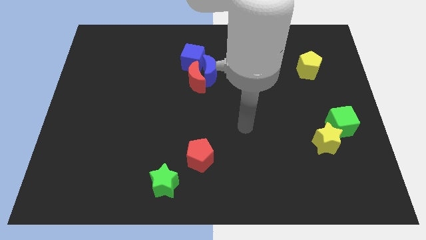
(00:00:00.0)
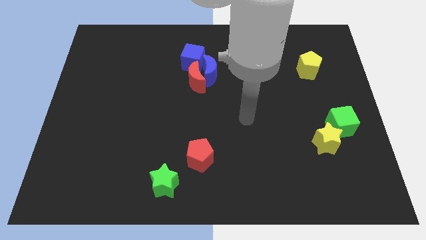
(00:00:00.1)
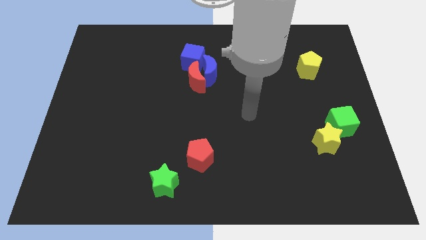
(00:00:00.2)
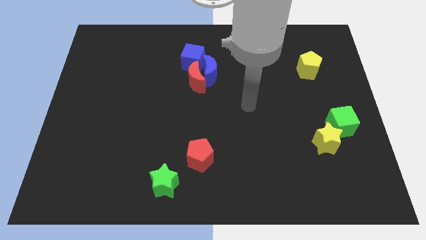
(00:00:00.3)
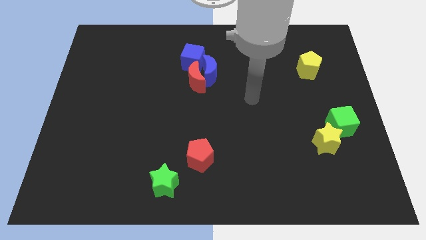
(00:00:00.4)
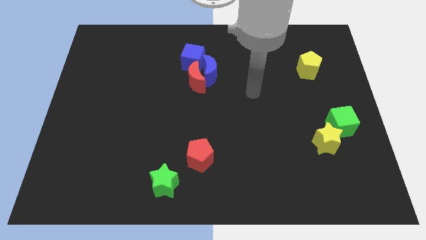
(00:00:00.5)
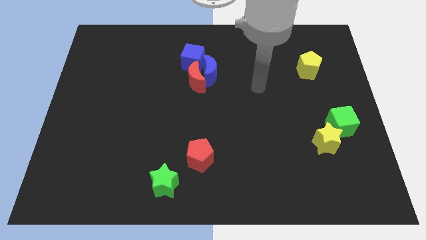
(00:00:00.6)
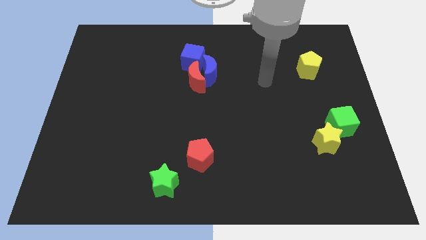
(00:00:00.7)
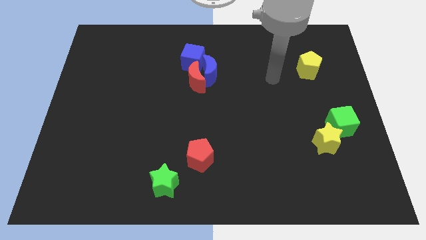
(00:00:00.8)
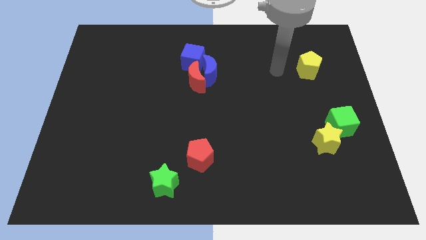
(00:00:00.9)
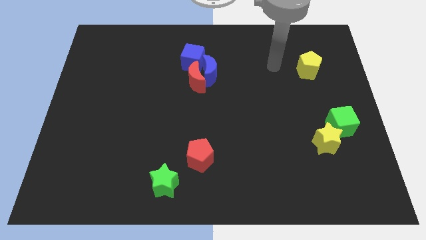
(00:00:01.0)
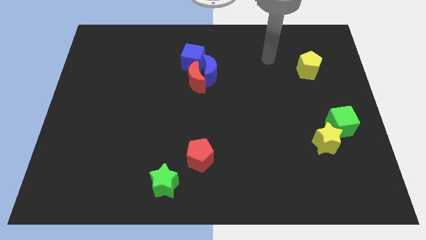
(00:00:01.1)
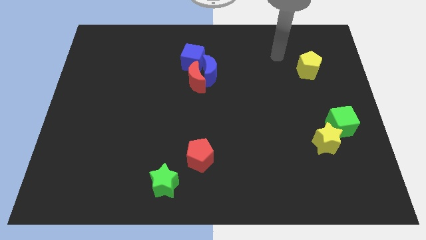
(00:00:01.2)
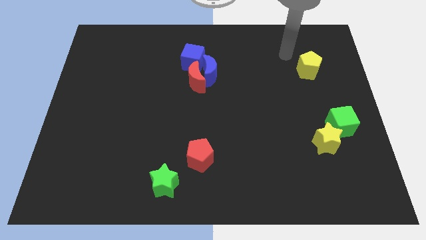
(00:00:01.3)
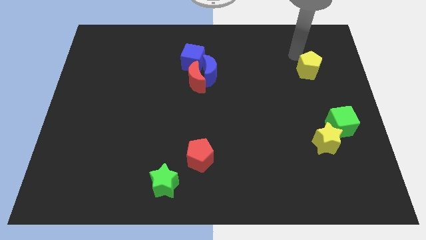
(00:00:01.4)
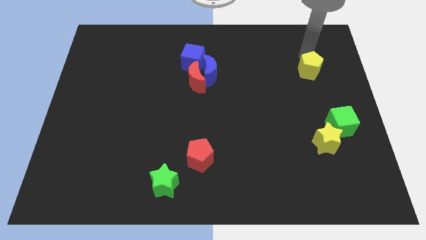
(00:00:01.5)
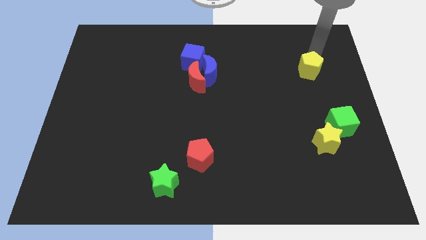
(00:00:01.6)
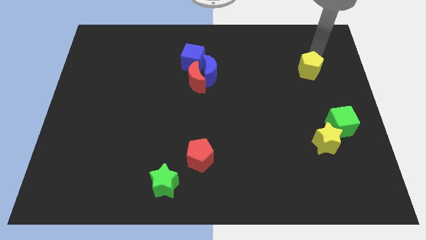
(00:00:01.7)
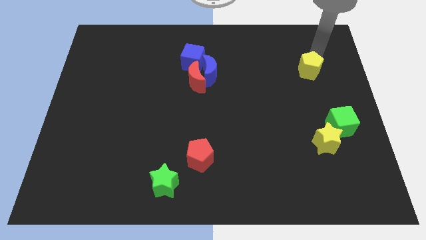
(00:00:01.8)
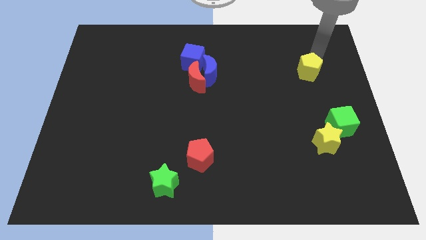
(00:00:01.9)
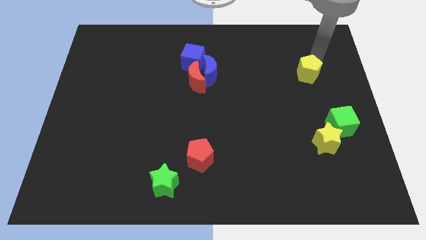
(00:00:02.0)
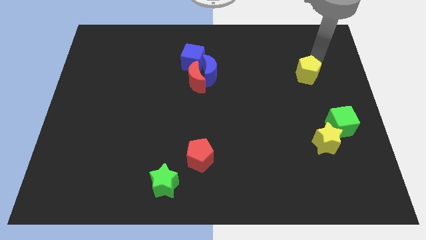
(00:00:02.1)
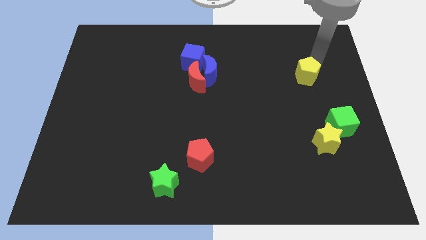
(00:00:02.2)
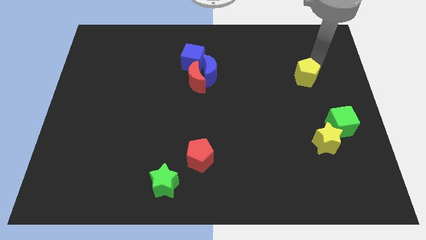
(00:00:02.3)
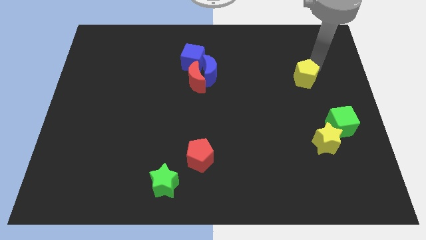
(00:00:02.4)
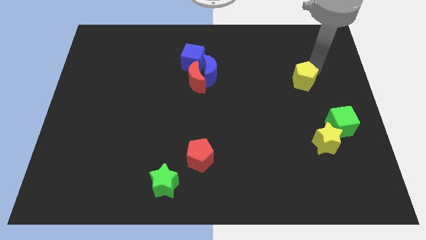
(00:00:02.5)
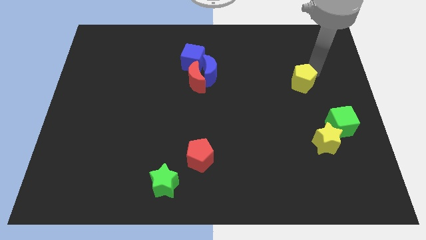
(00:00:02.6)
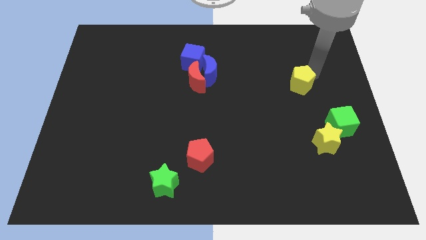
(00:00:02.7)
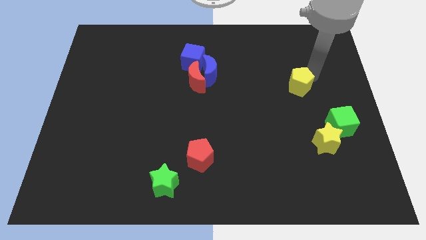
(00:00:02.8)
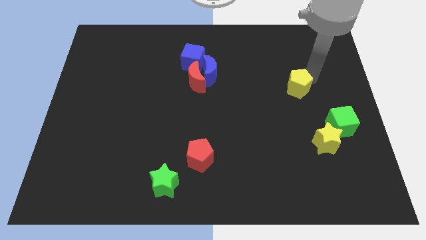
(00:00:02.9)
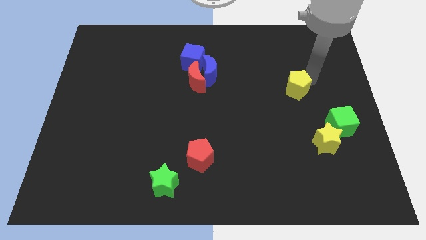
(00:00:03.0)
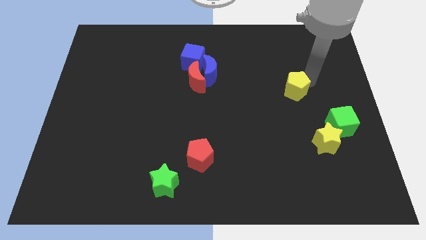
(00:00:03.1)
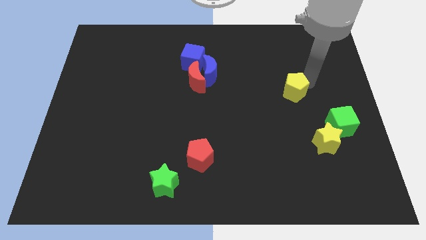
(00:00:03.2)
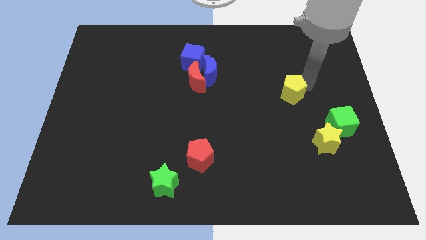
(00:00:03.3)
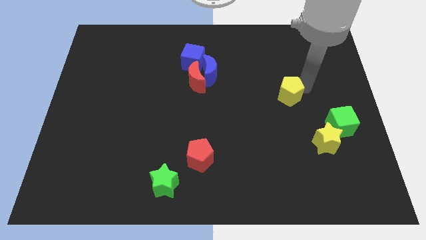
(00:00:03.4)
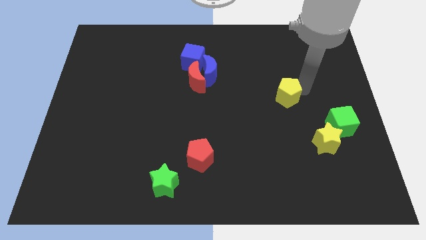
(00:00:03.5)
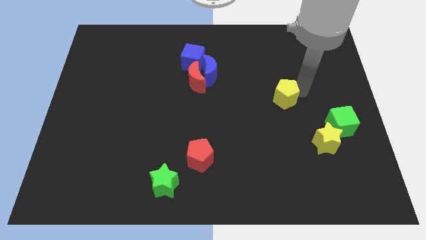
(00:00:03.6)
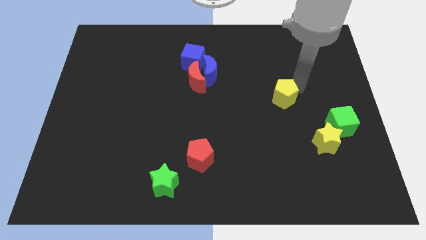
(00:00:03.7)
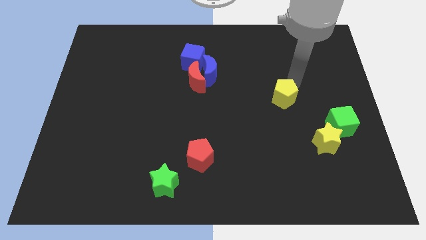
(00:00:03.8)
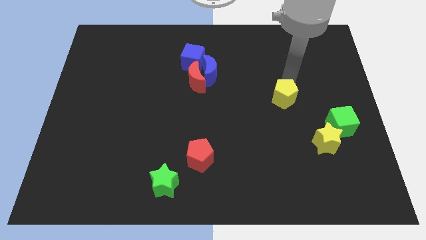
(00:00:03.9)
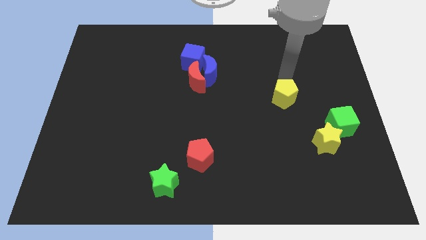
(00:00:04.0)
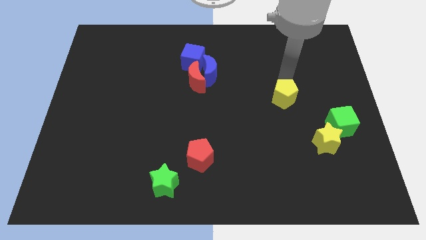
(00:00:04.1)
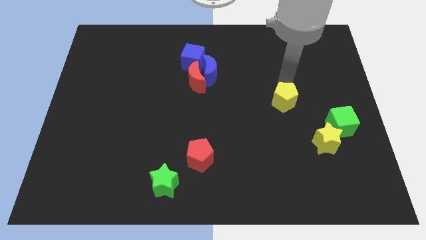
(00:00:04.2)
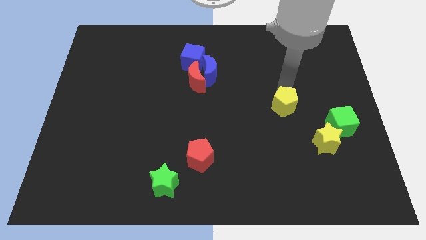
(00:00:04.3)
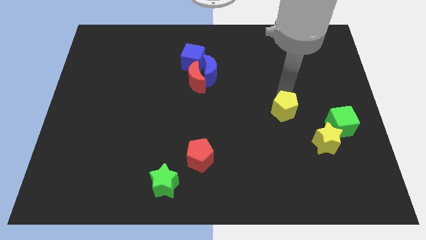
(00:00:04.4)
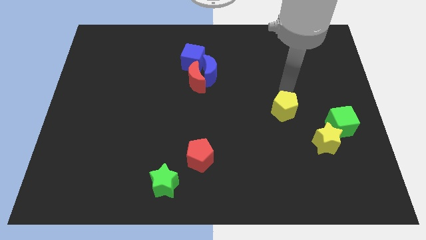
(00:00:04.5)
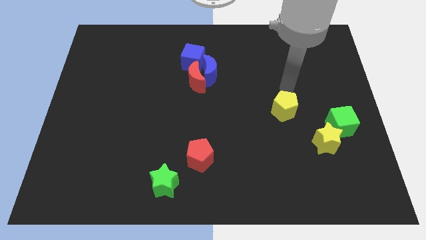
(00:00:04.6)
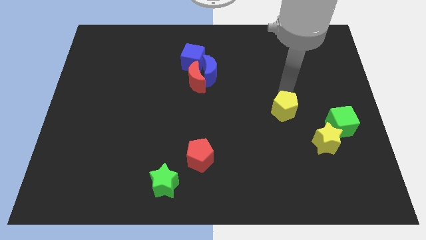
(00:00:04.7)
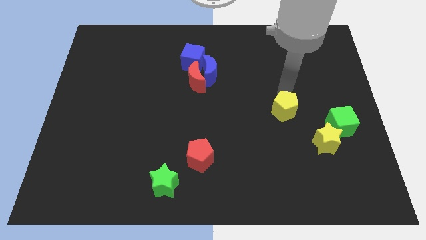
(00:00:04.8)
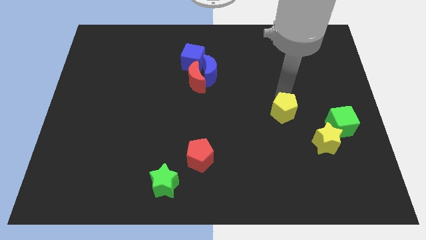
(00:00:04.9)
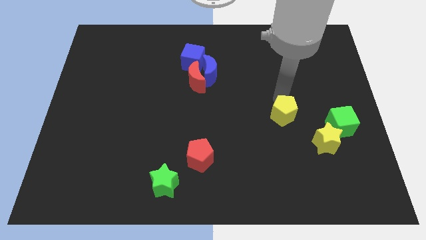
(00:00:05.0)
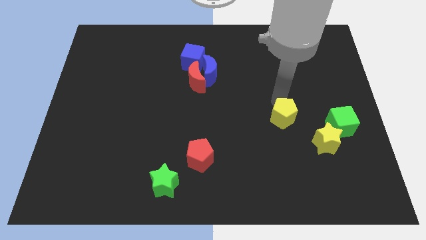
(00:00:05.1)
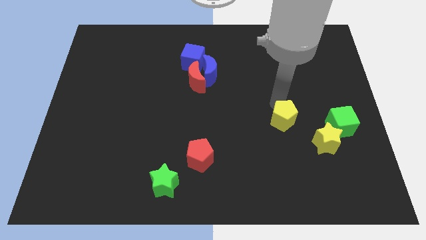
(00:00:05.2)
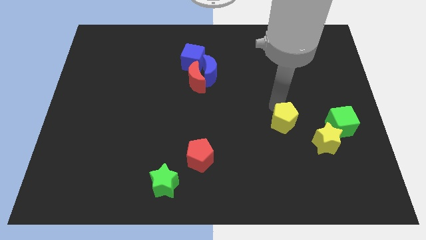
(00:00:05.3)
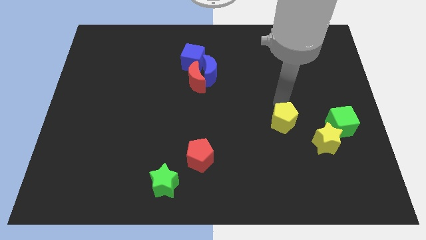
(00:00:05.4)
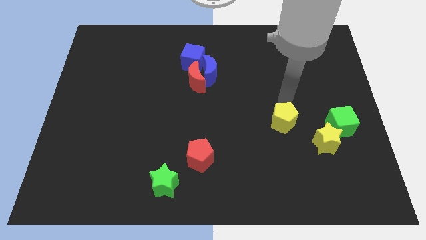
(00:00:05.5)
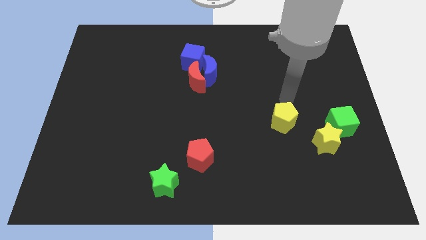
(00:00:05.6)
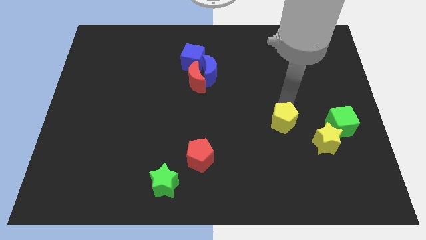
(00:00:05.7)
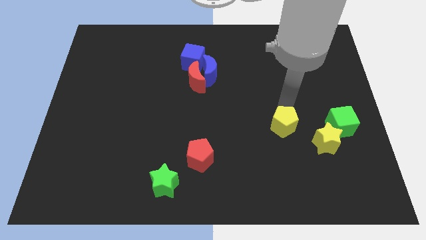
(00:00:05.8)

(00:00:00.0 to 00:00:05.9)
put the yellow pentagon just left of the yellow star

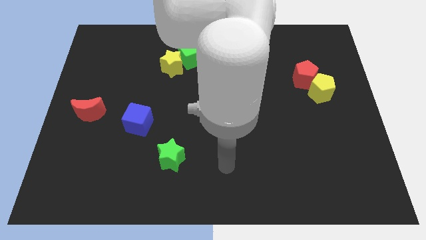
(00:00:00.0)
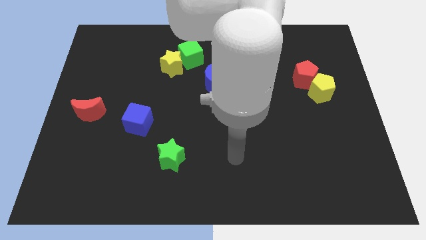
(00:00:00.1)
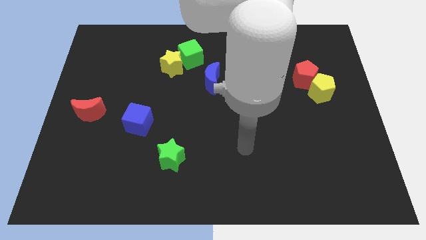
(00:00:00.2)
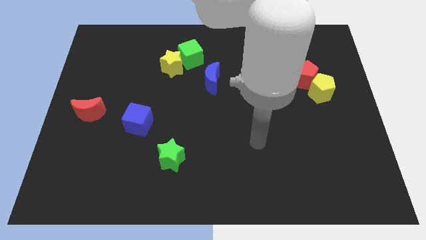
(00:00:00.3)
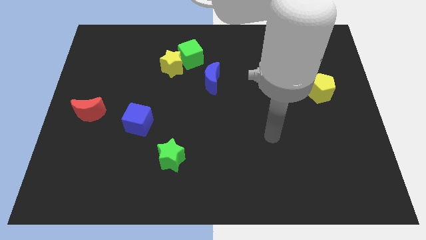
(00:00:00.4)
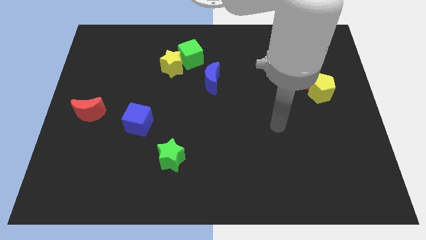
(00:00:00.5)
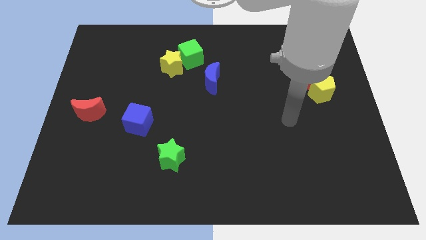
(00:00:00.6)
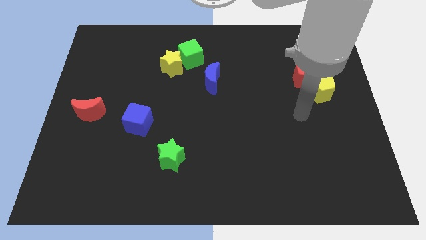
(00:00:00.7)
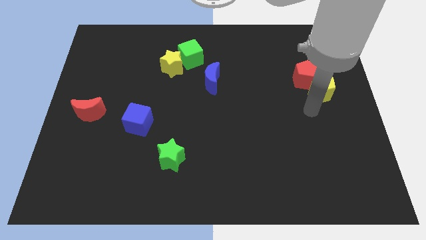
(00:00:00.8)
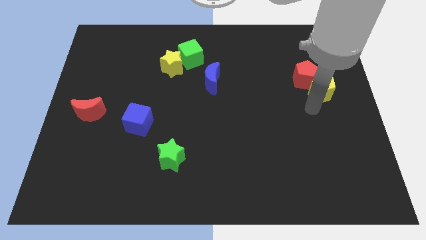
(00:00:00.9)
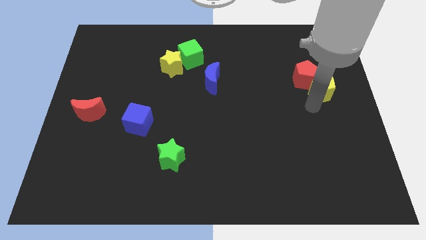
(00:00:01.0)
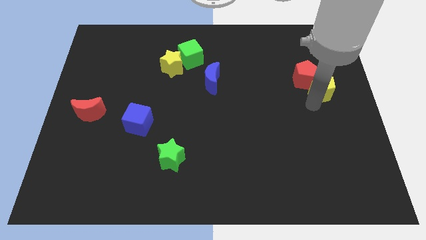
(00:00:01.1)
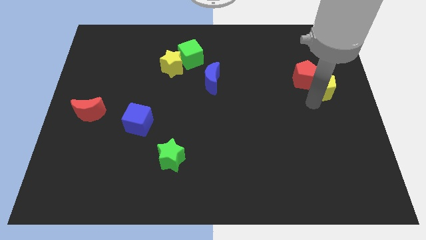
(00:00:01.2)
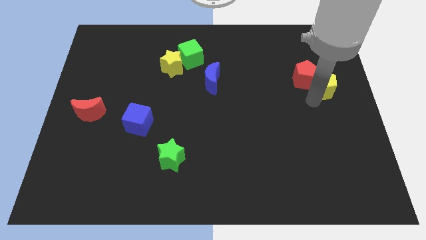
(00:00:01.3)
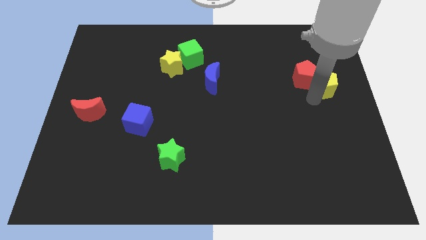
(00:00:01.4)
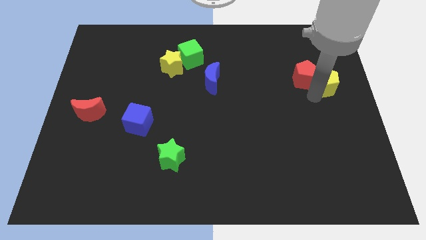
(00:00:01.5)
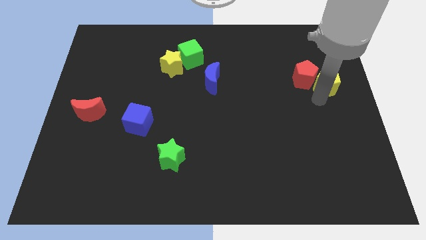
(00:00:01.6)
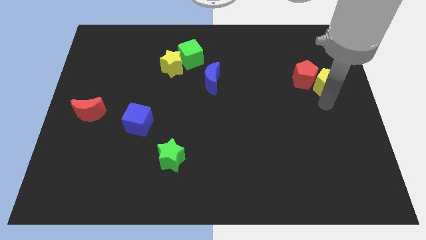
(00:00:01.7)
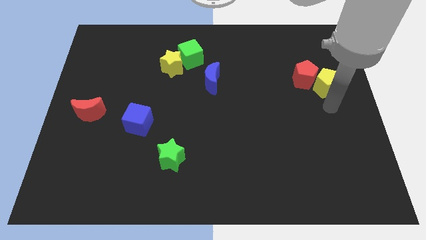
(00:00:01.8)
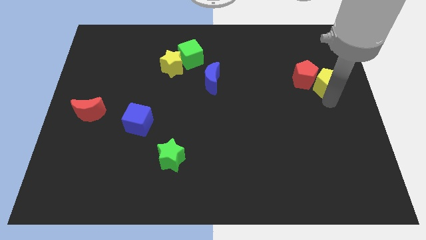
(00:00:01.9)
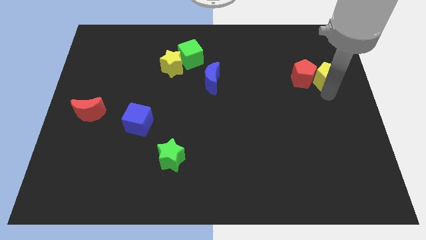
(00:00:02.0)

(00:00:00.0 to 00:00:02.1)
slide the yellow pentagon diagonally up and to the right of the red pentagon
